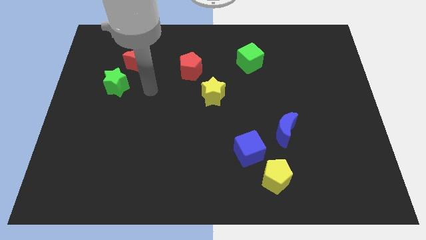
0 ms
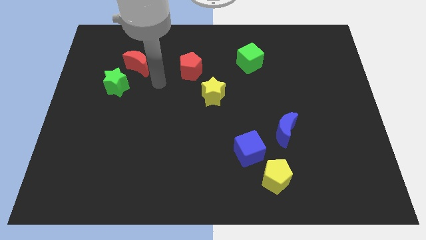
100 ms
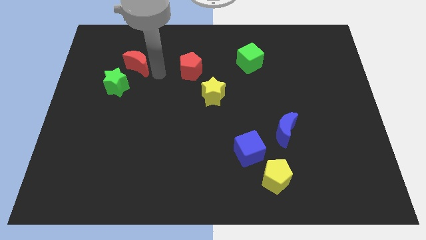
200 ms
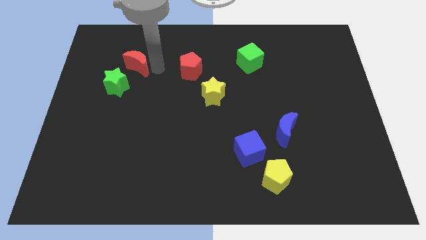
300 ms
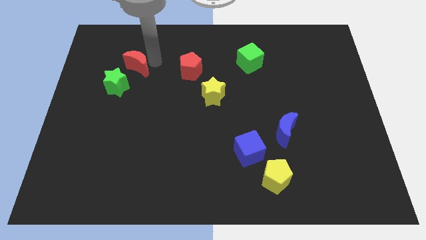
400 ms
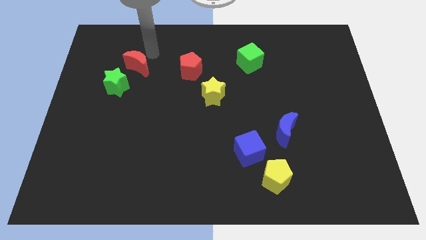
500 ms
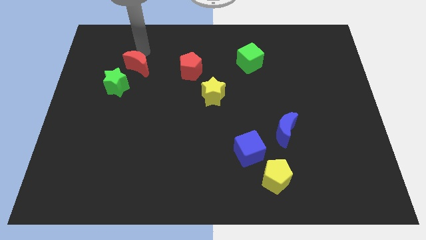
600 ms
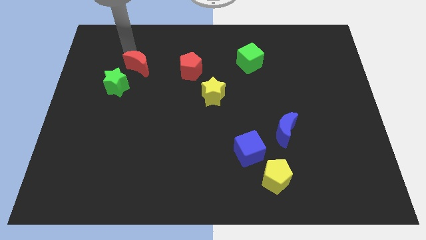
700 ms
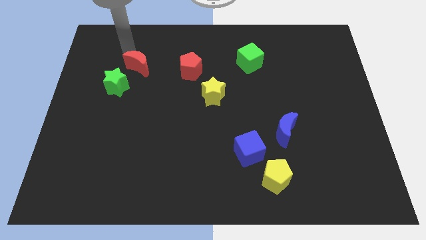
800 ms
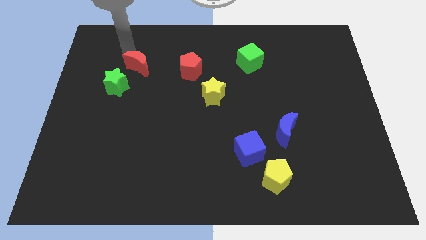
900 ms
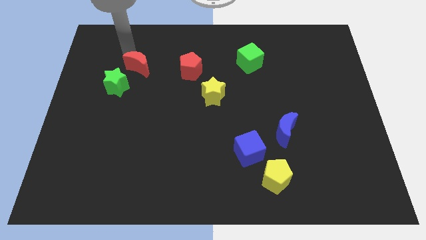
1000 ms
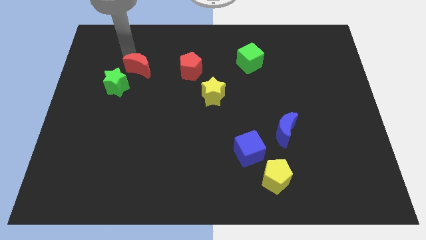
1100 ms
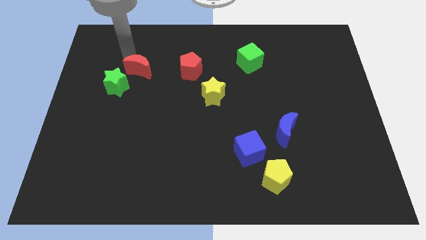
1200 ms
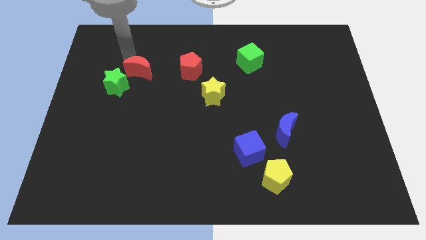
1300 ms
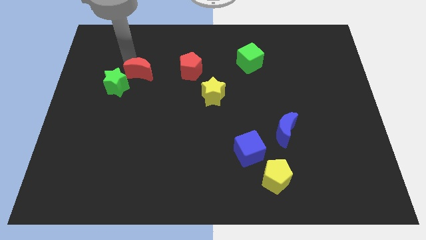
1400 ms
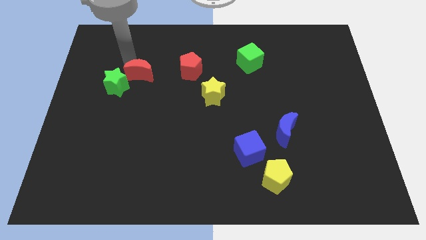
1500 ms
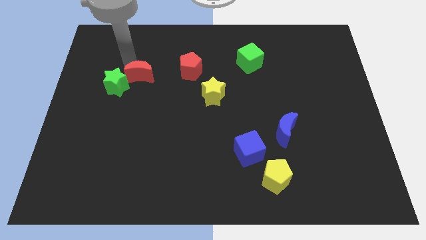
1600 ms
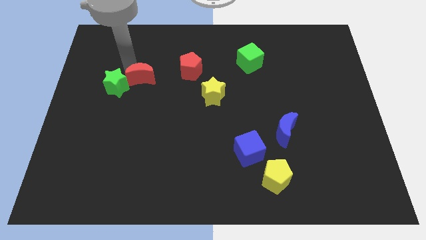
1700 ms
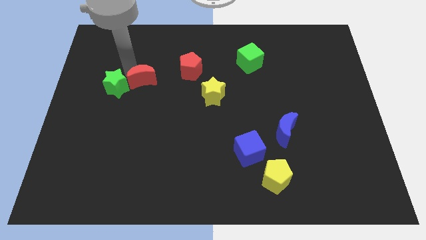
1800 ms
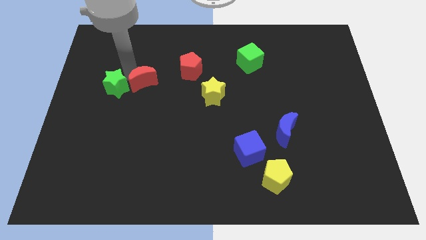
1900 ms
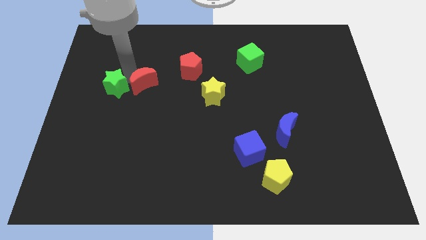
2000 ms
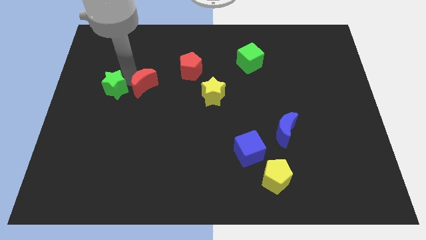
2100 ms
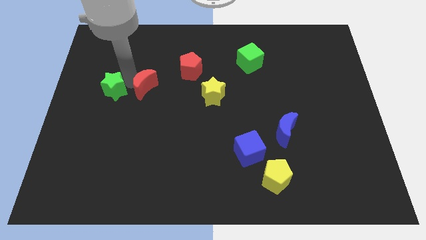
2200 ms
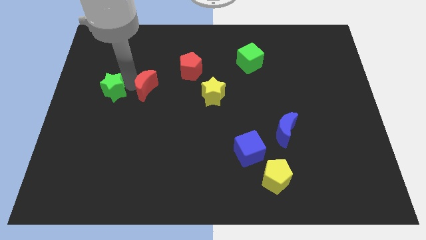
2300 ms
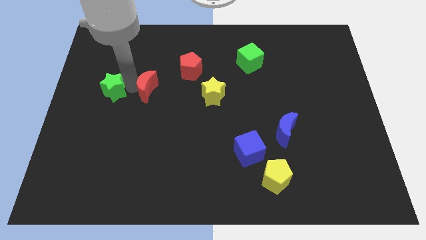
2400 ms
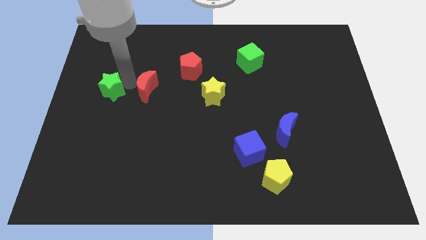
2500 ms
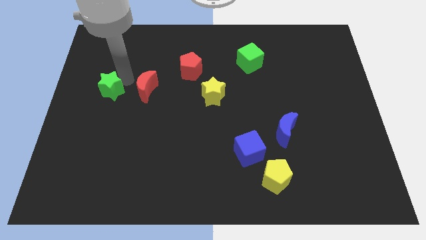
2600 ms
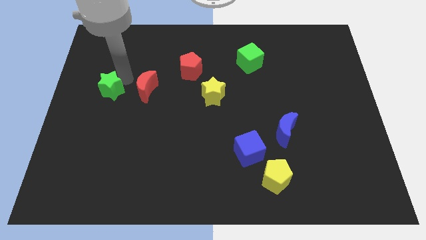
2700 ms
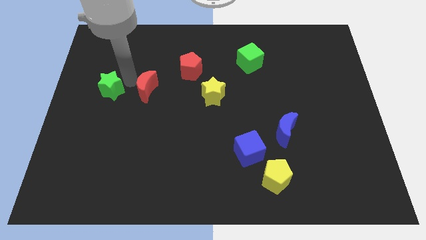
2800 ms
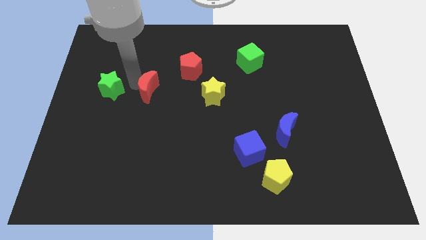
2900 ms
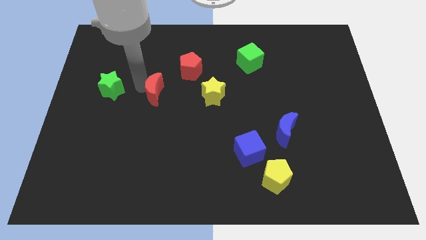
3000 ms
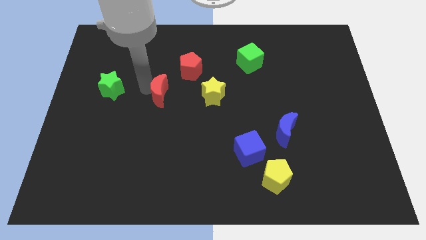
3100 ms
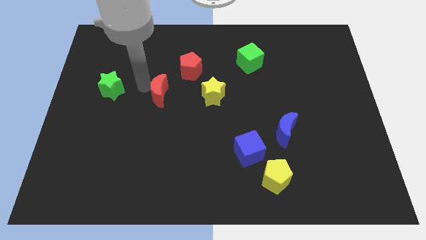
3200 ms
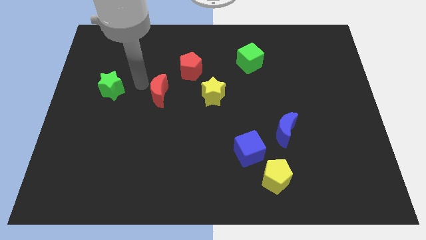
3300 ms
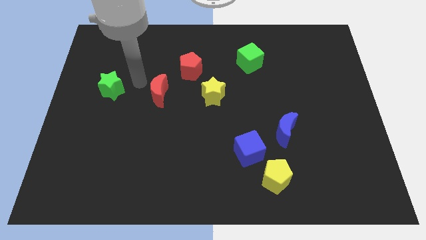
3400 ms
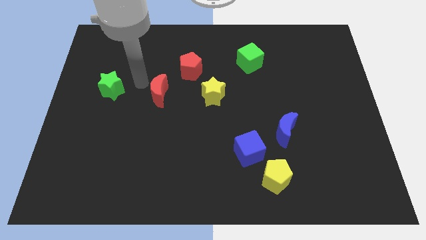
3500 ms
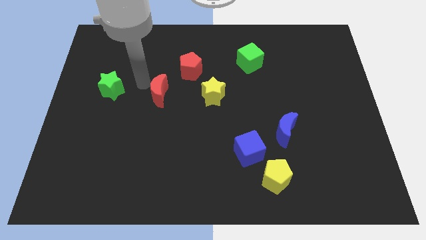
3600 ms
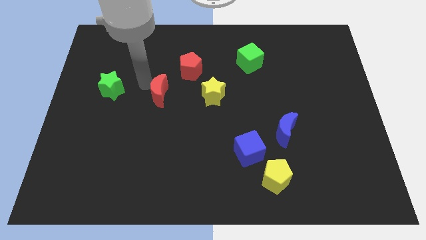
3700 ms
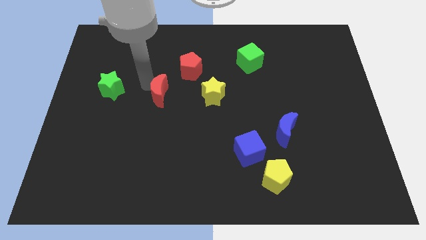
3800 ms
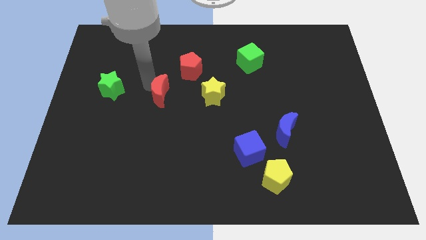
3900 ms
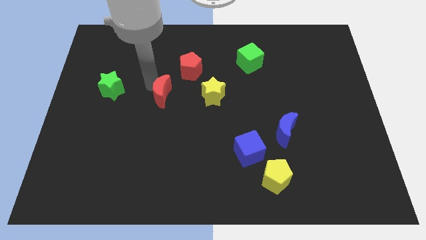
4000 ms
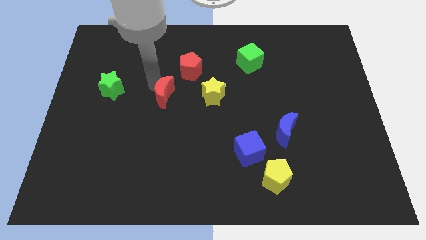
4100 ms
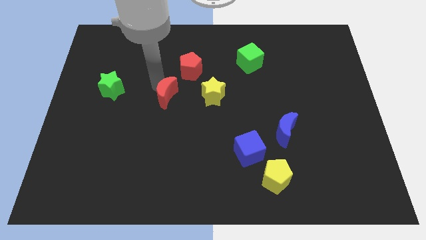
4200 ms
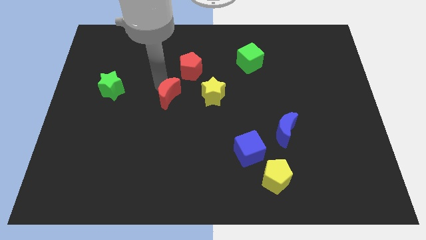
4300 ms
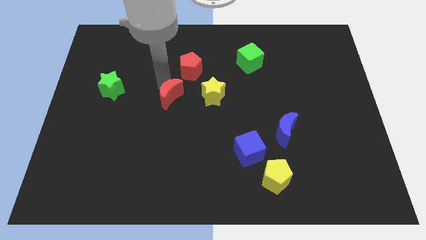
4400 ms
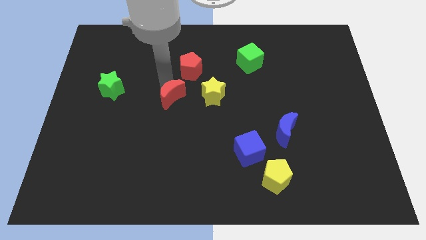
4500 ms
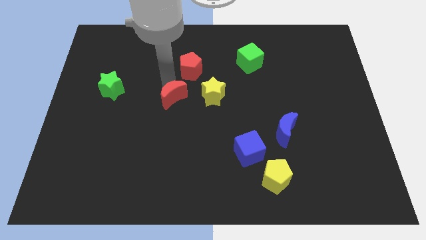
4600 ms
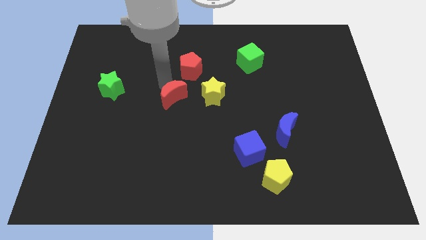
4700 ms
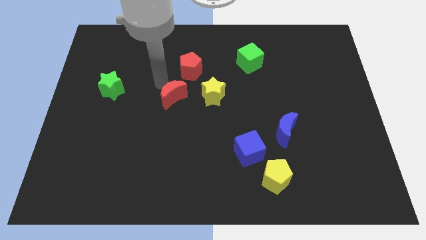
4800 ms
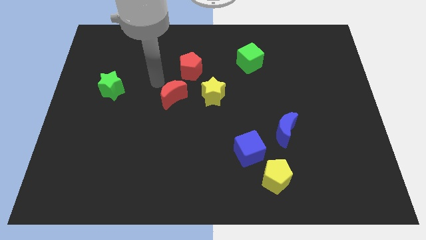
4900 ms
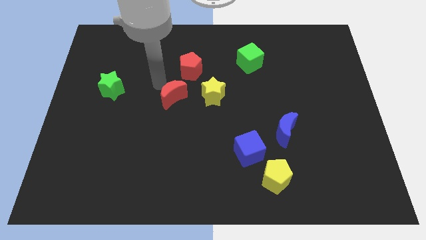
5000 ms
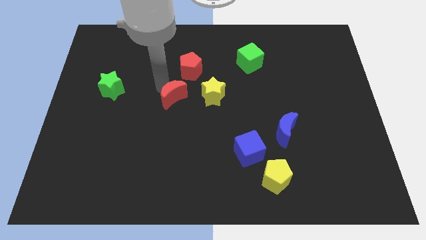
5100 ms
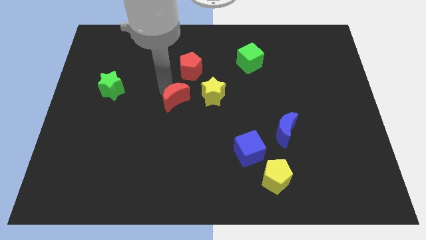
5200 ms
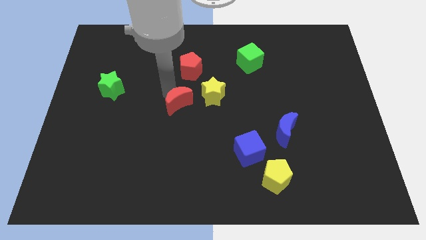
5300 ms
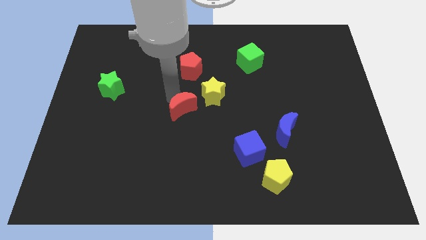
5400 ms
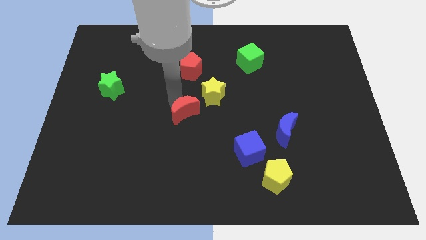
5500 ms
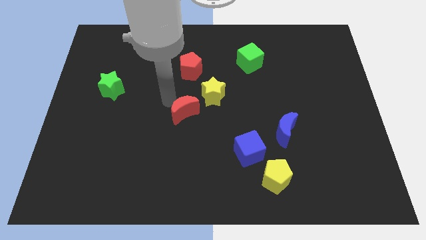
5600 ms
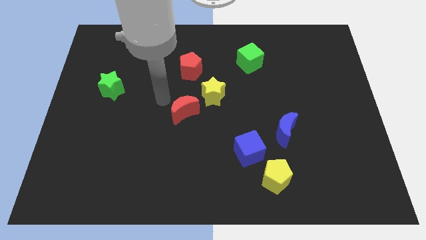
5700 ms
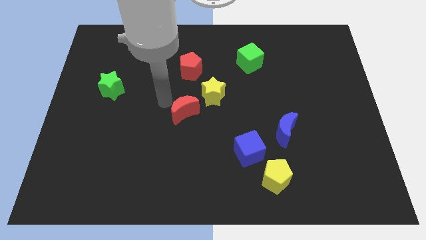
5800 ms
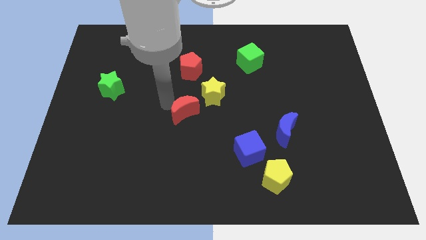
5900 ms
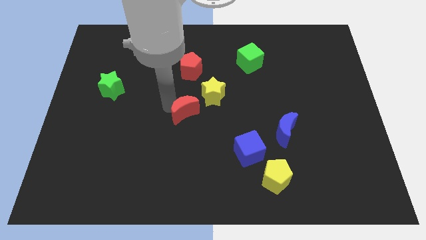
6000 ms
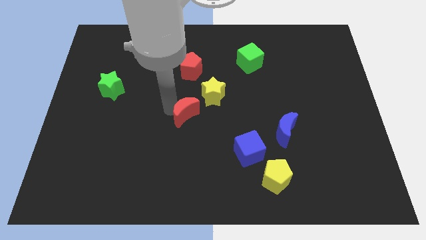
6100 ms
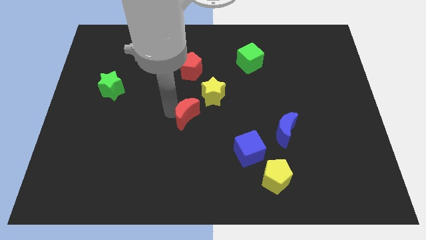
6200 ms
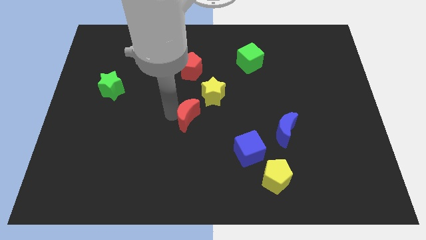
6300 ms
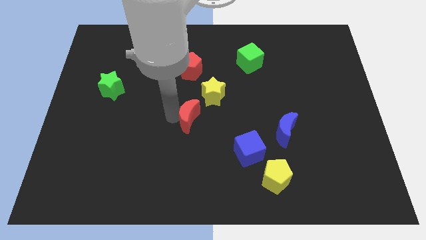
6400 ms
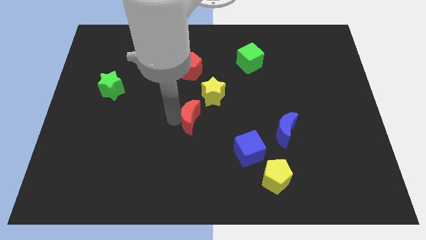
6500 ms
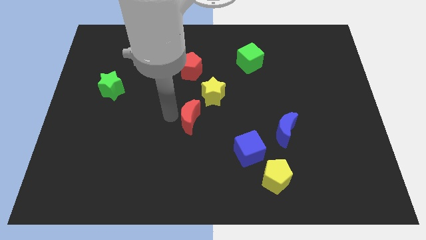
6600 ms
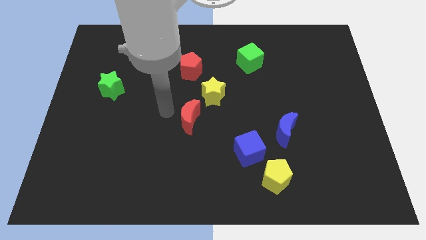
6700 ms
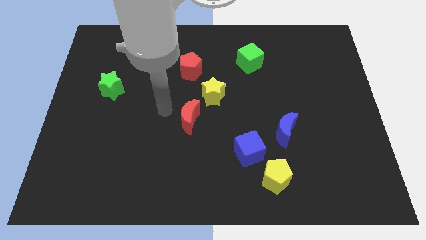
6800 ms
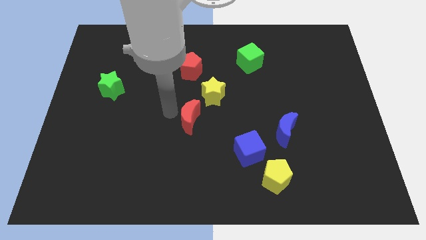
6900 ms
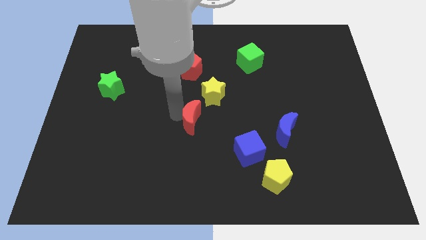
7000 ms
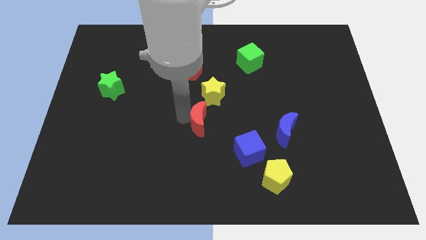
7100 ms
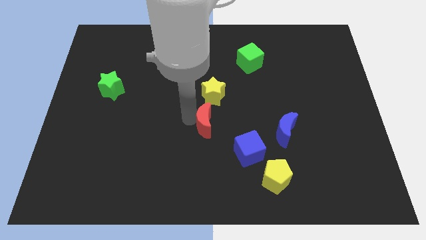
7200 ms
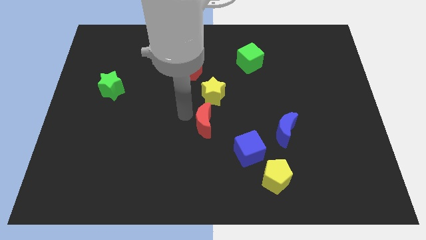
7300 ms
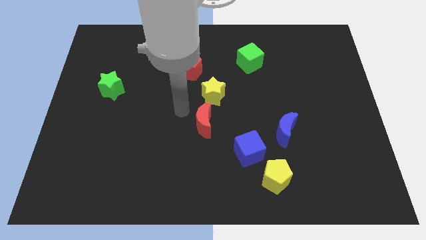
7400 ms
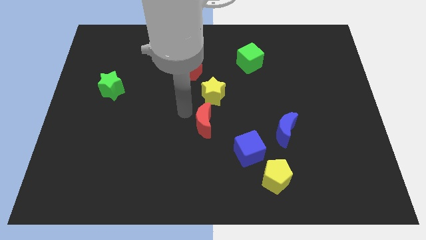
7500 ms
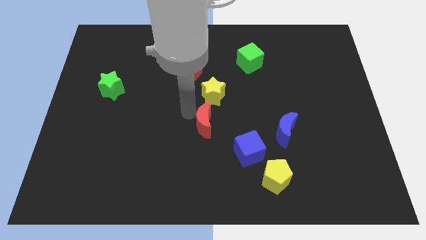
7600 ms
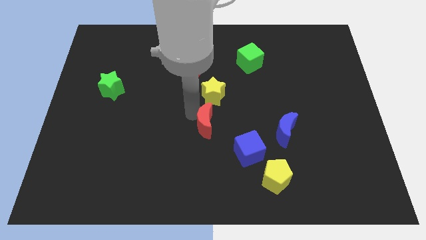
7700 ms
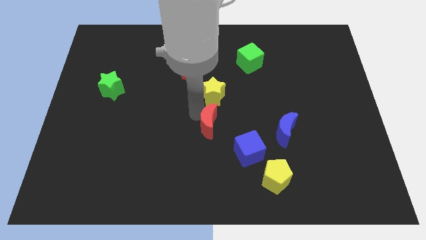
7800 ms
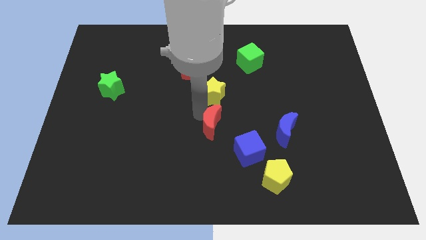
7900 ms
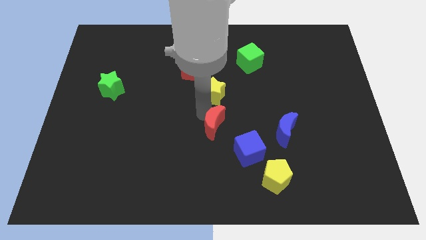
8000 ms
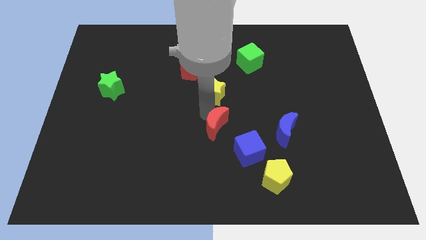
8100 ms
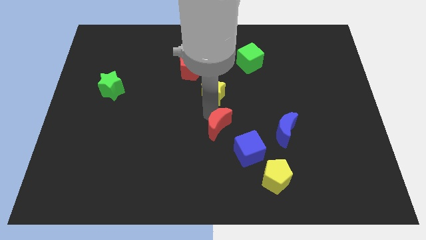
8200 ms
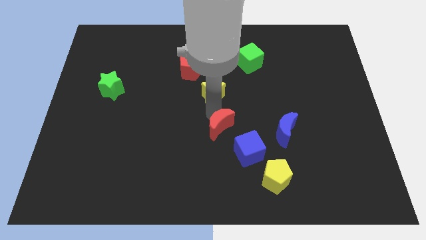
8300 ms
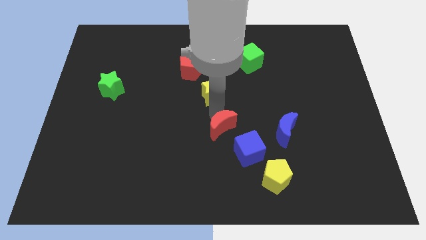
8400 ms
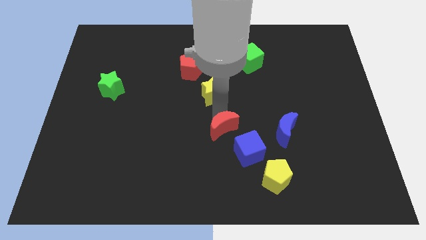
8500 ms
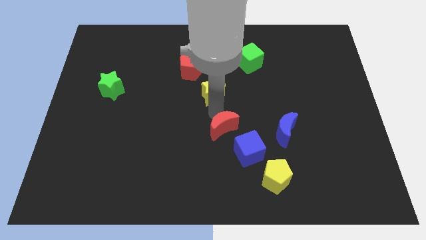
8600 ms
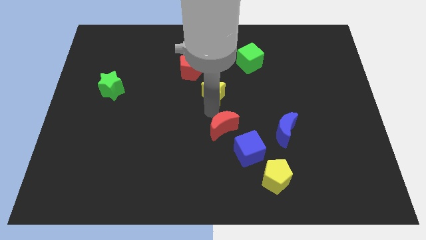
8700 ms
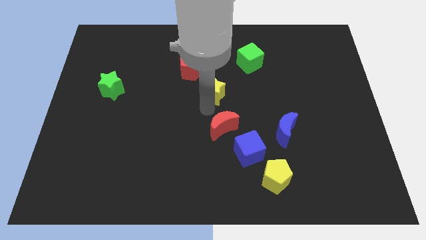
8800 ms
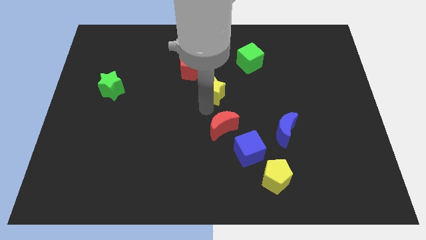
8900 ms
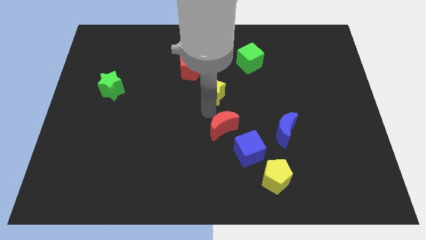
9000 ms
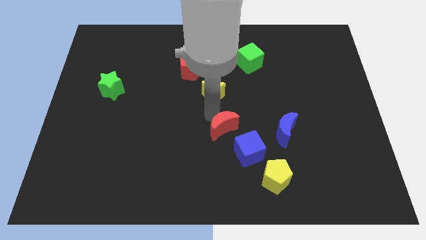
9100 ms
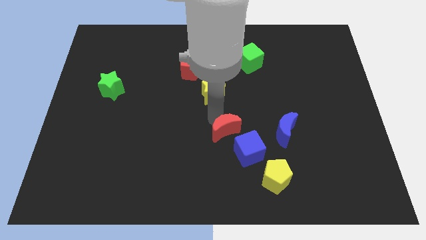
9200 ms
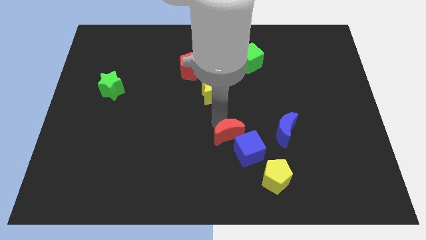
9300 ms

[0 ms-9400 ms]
slide the red moon next to the blue cube
